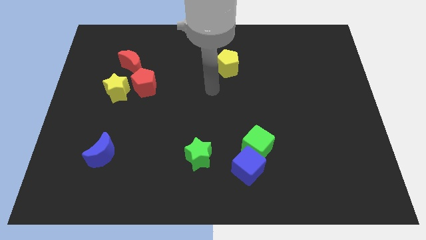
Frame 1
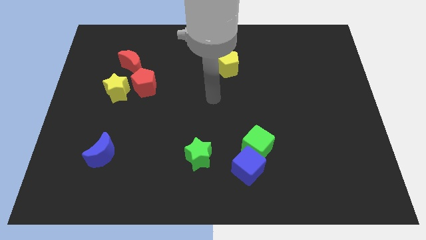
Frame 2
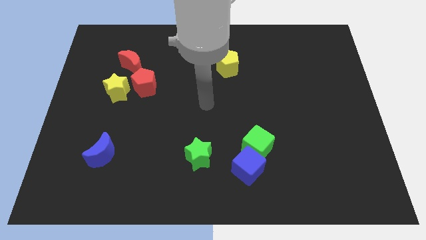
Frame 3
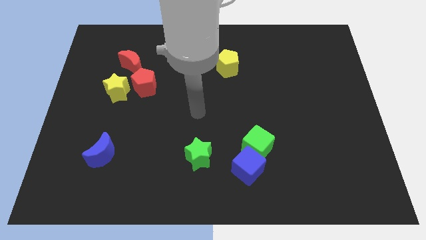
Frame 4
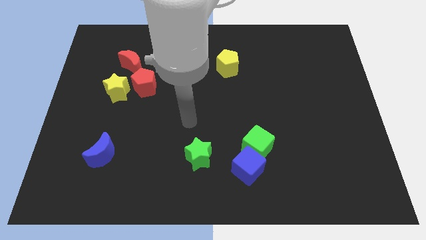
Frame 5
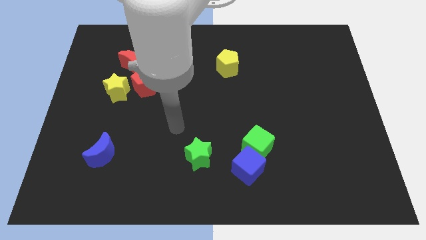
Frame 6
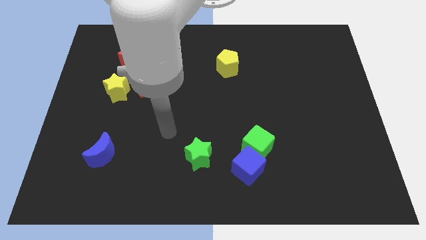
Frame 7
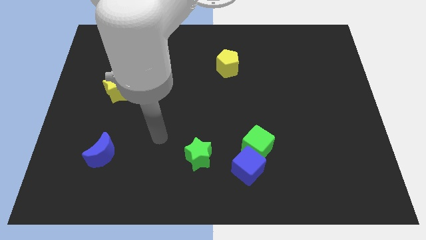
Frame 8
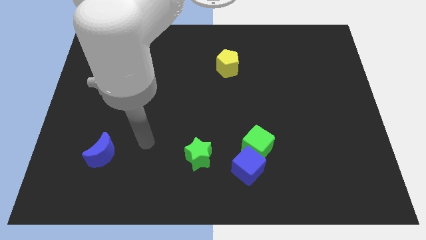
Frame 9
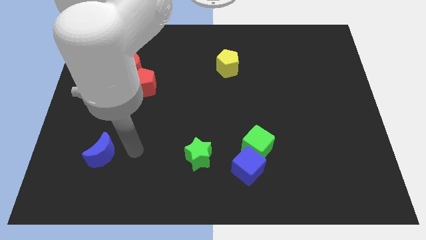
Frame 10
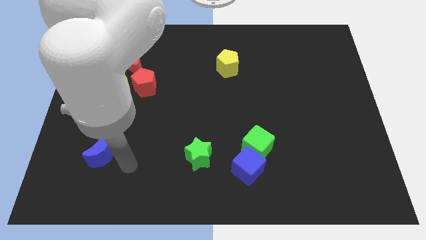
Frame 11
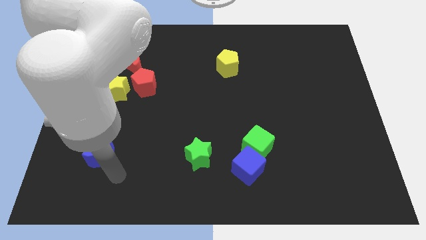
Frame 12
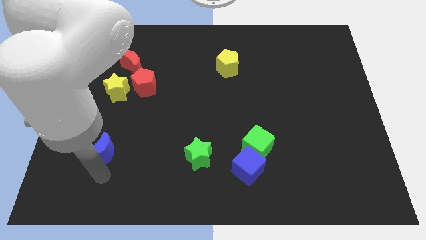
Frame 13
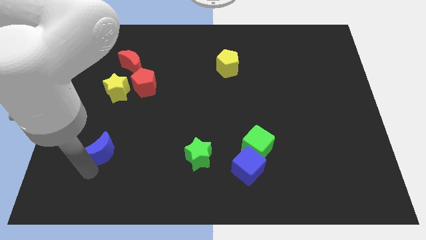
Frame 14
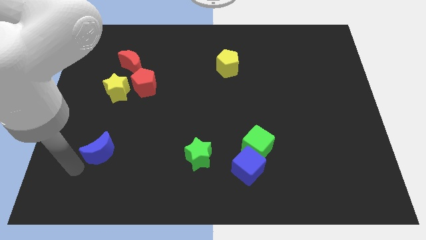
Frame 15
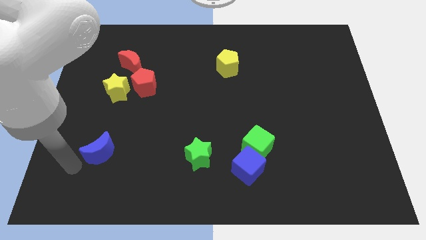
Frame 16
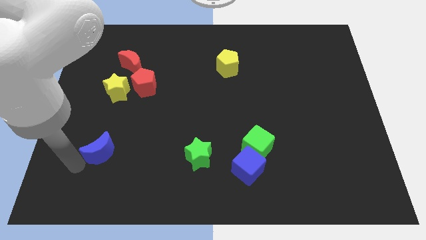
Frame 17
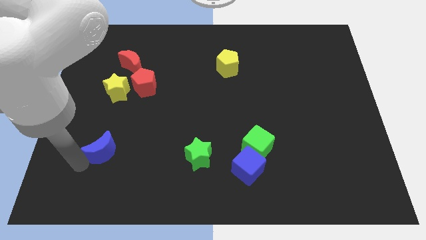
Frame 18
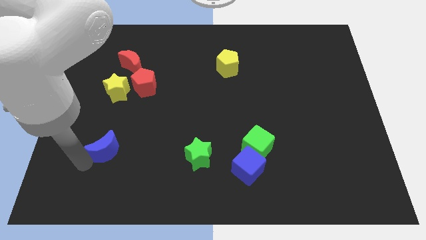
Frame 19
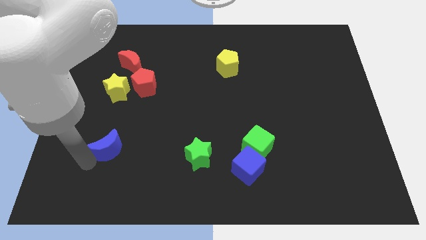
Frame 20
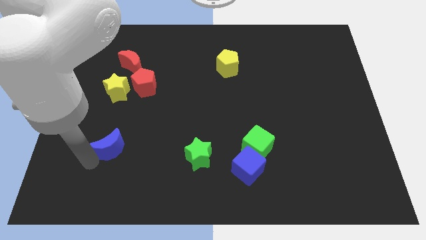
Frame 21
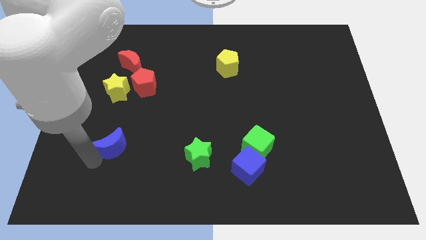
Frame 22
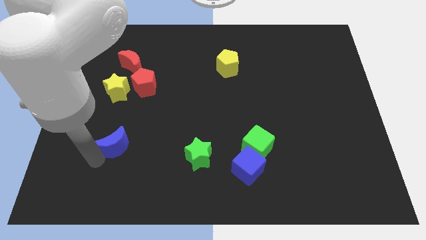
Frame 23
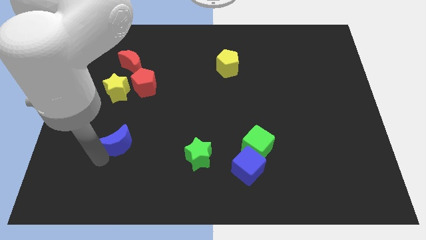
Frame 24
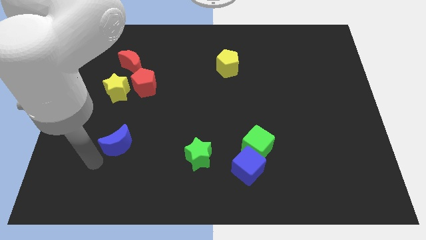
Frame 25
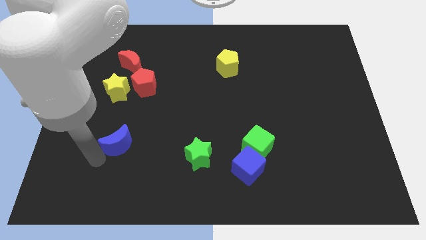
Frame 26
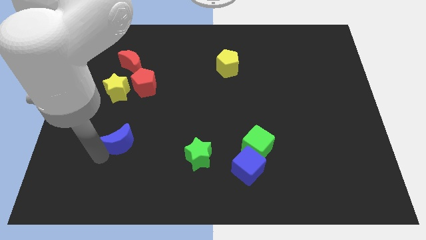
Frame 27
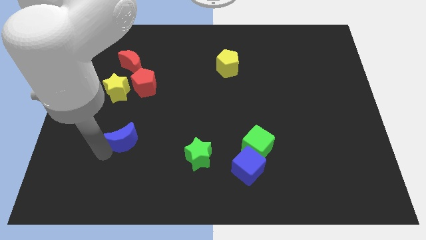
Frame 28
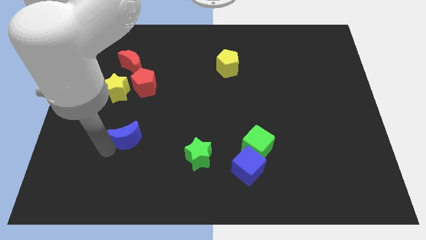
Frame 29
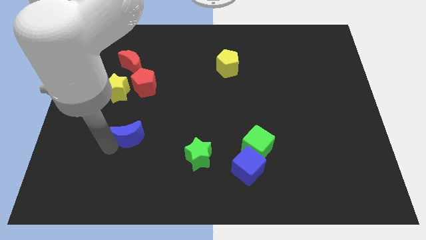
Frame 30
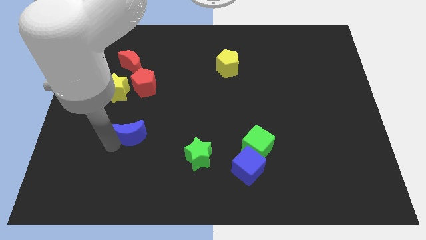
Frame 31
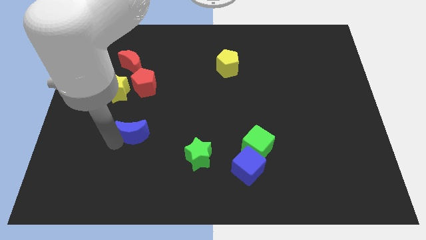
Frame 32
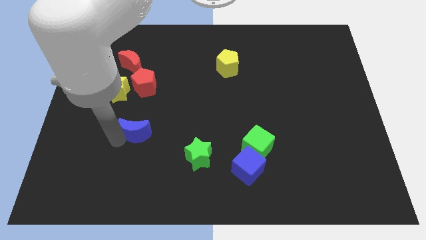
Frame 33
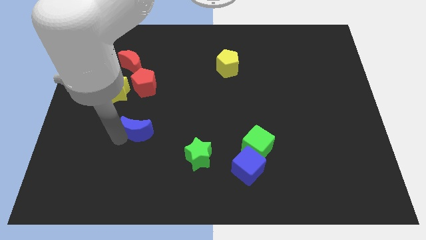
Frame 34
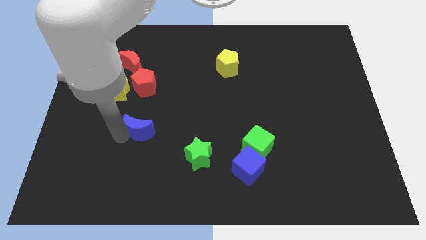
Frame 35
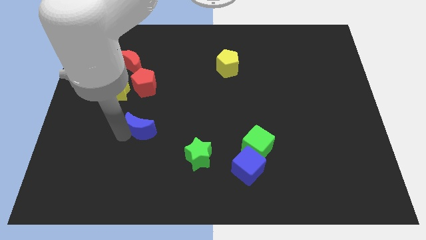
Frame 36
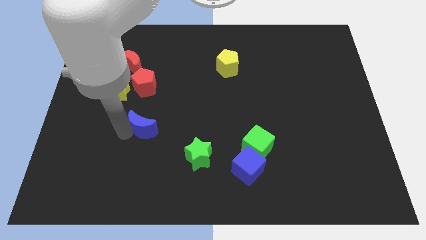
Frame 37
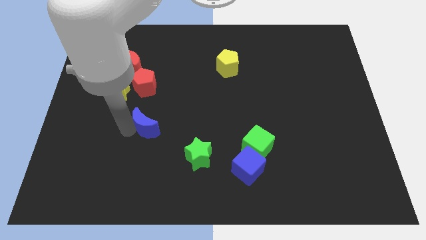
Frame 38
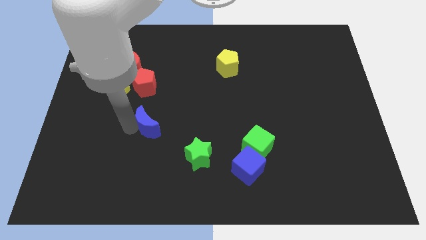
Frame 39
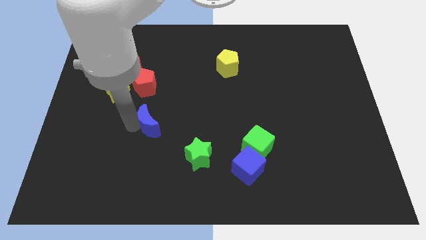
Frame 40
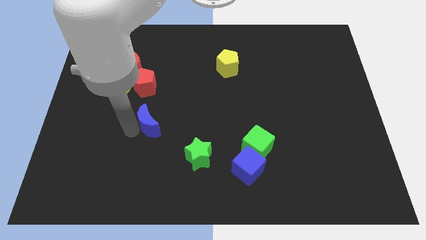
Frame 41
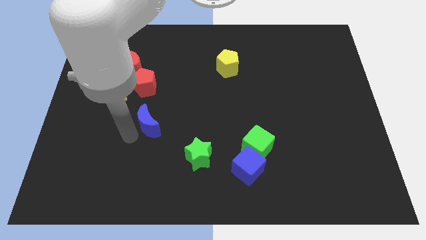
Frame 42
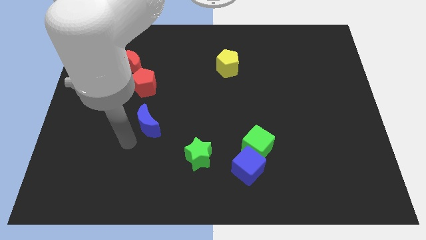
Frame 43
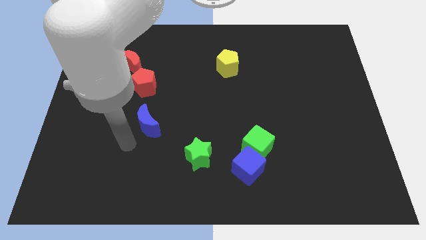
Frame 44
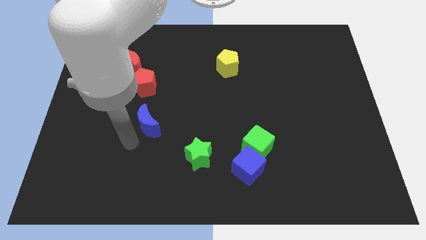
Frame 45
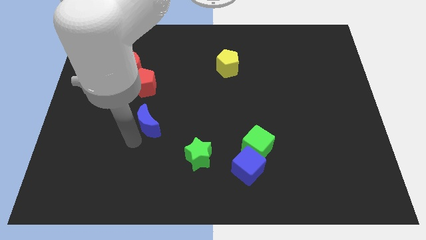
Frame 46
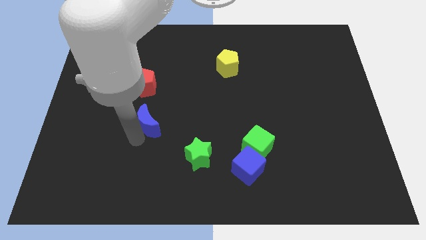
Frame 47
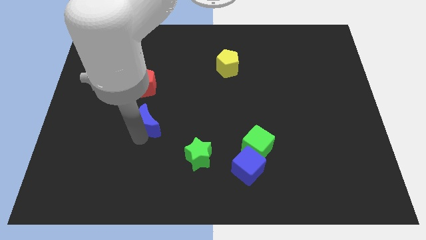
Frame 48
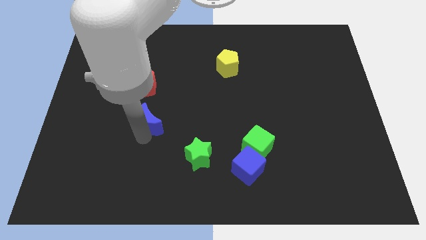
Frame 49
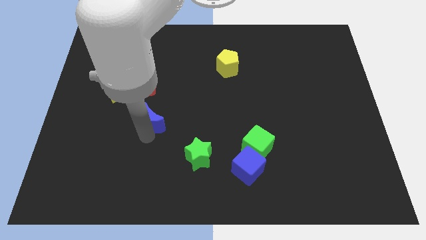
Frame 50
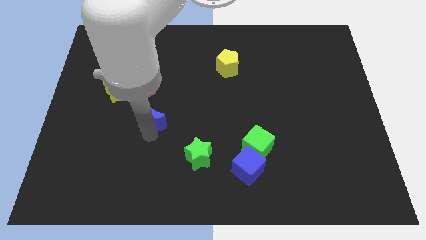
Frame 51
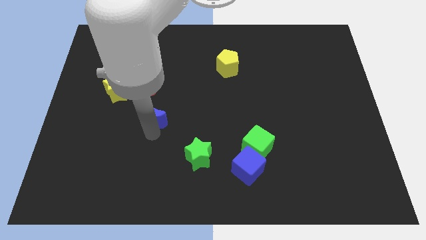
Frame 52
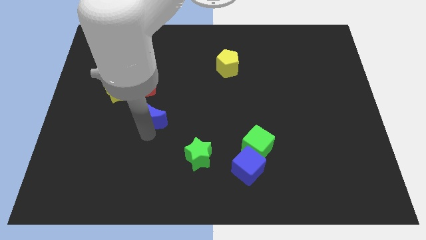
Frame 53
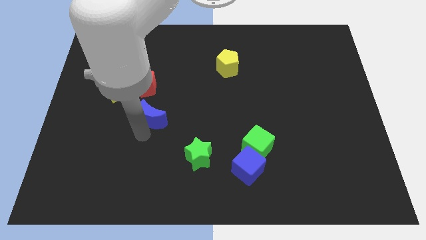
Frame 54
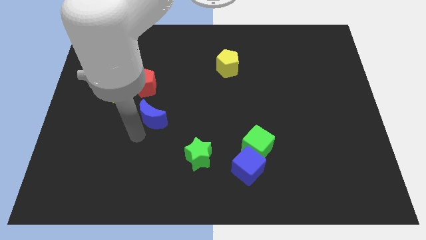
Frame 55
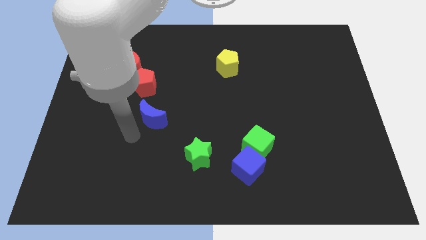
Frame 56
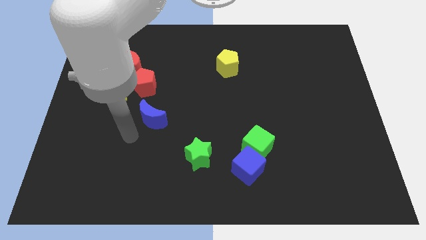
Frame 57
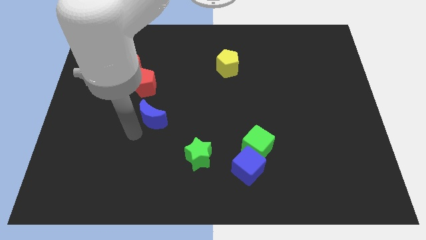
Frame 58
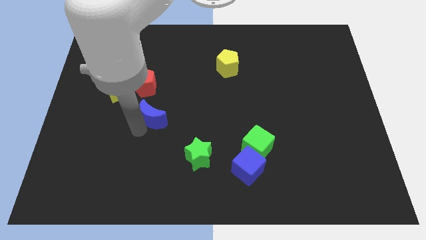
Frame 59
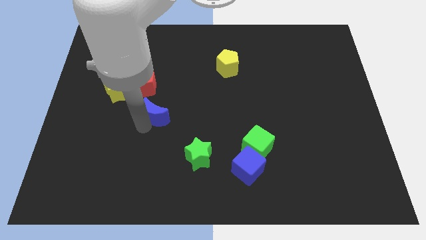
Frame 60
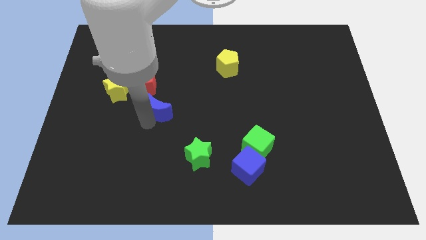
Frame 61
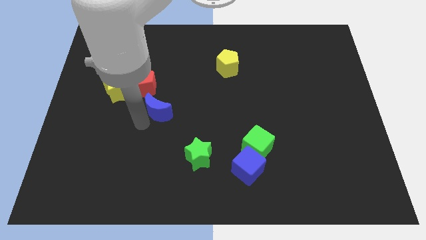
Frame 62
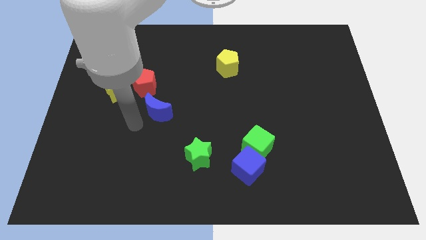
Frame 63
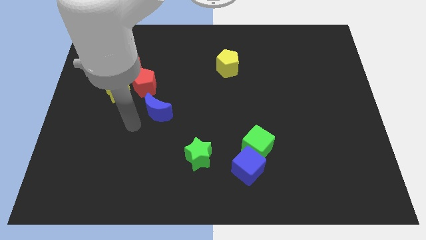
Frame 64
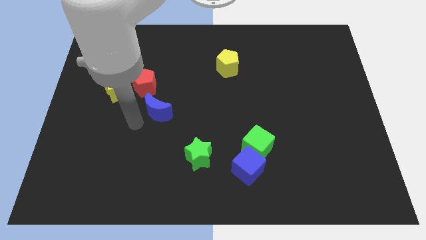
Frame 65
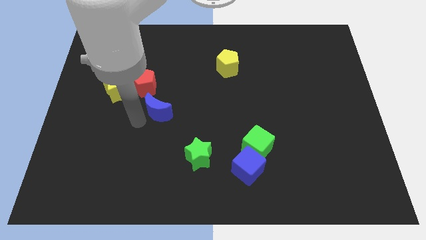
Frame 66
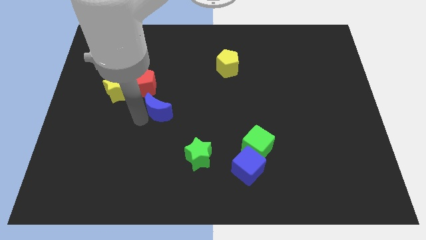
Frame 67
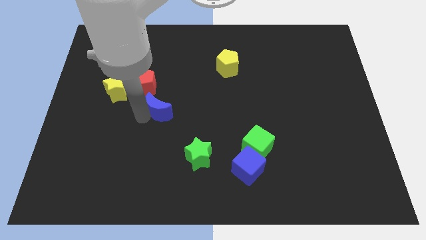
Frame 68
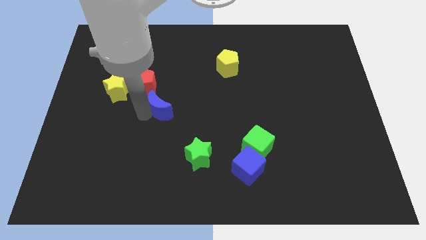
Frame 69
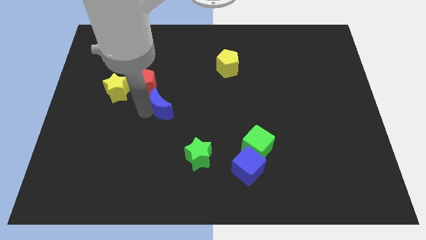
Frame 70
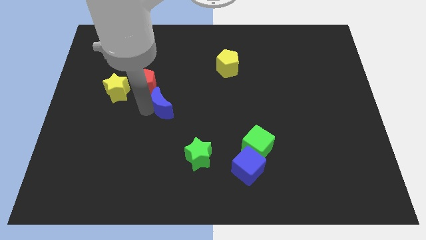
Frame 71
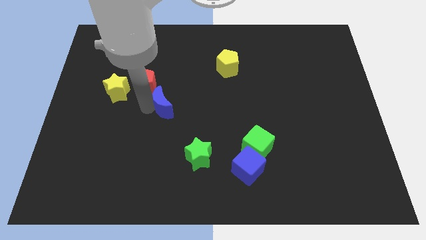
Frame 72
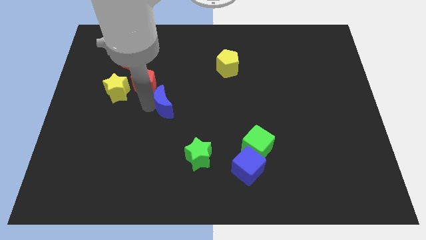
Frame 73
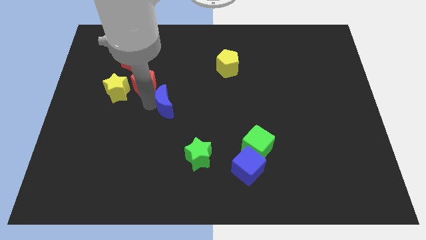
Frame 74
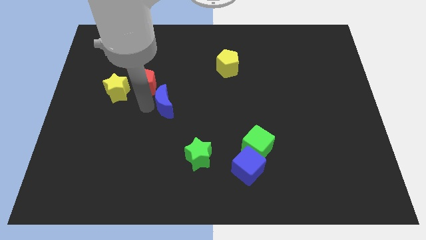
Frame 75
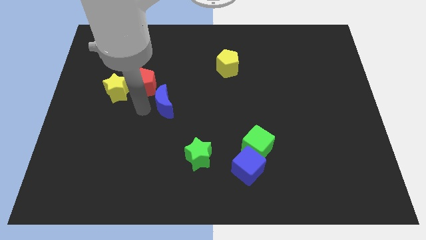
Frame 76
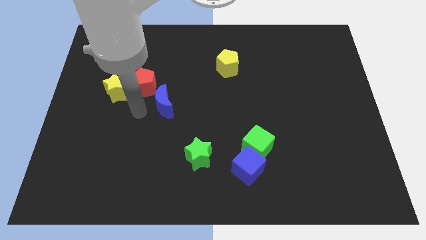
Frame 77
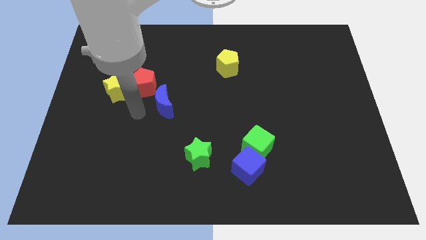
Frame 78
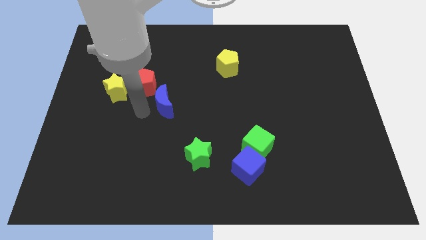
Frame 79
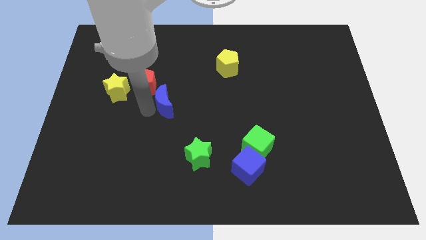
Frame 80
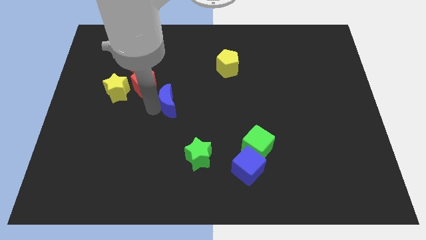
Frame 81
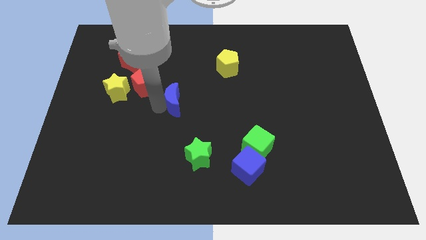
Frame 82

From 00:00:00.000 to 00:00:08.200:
move the blue moon upwards and to the right
